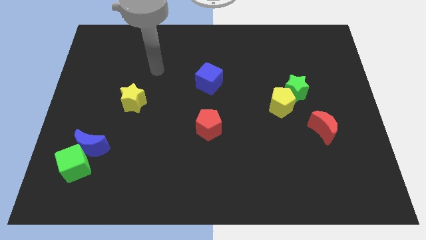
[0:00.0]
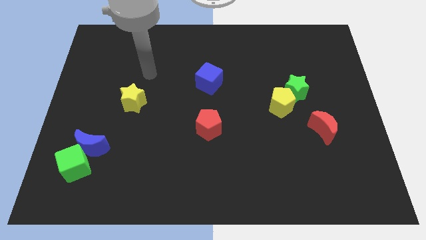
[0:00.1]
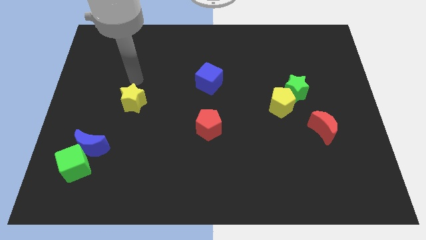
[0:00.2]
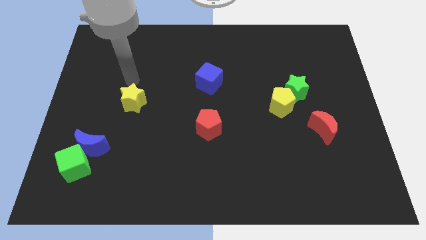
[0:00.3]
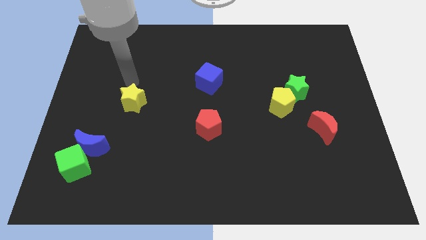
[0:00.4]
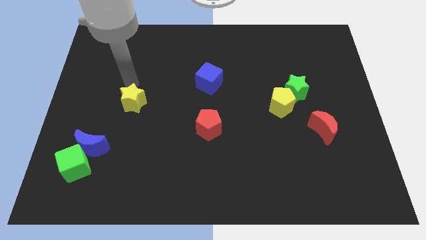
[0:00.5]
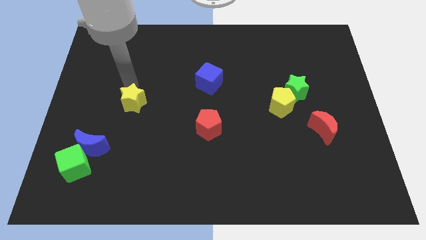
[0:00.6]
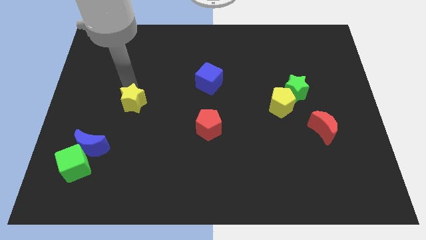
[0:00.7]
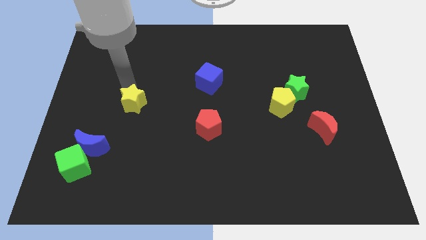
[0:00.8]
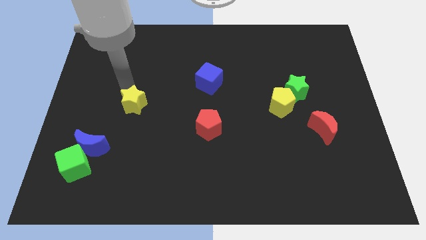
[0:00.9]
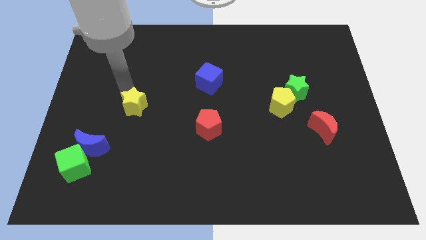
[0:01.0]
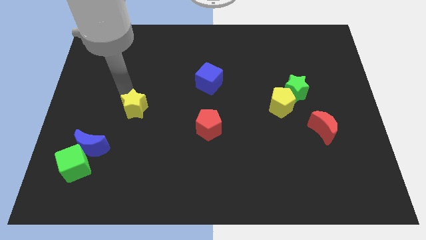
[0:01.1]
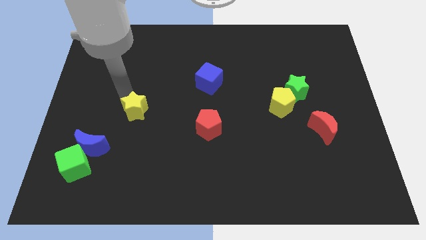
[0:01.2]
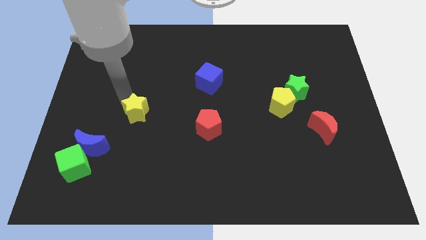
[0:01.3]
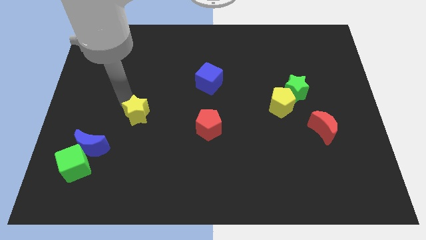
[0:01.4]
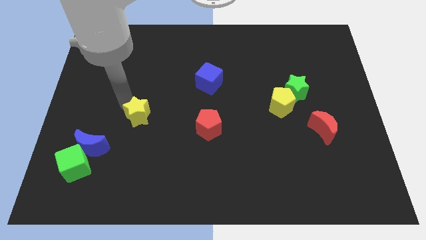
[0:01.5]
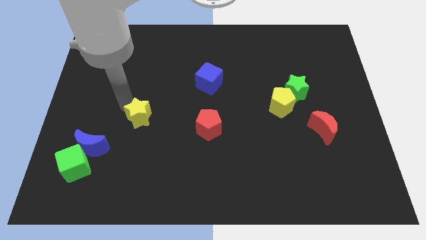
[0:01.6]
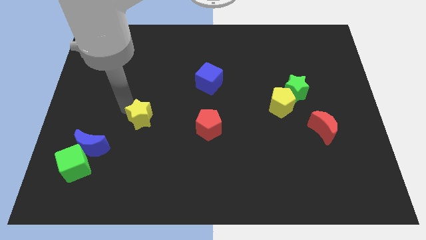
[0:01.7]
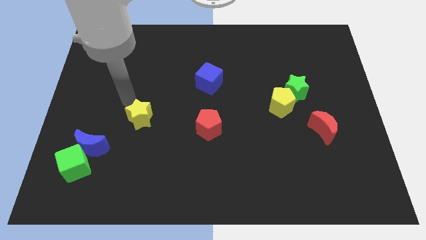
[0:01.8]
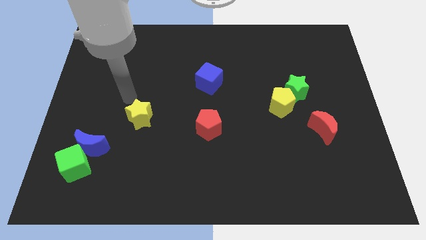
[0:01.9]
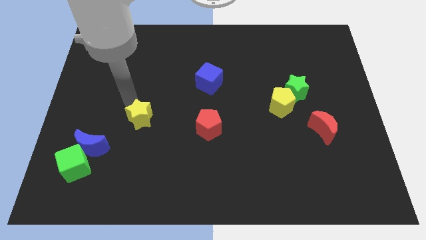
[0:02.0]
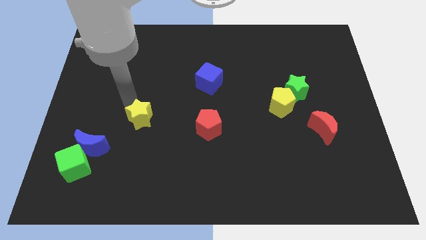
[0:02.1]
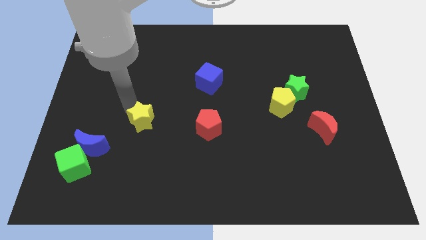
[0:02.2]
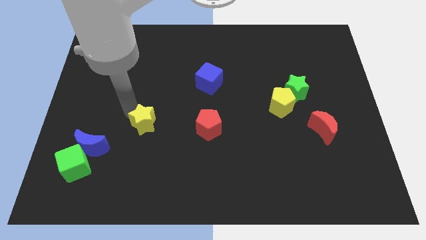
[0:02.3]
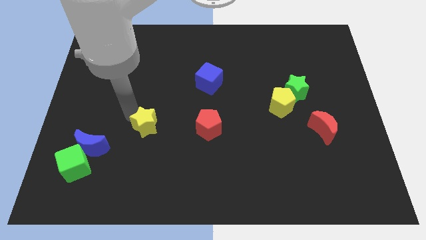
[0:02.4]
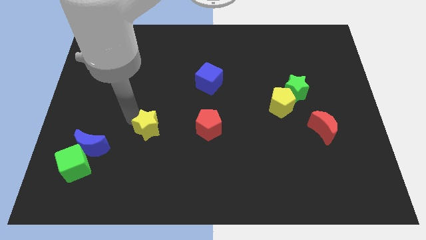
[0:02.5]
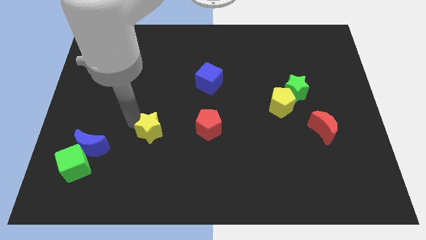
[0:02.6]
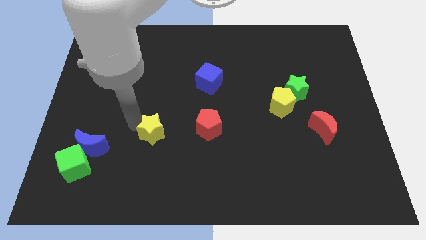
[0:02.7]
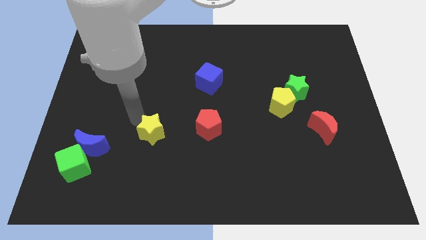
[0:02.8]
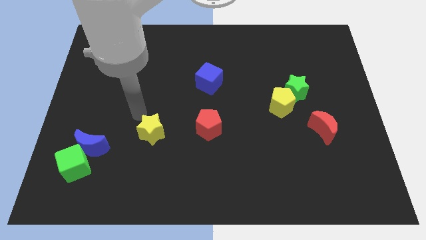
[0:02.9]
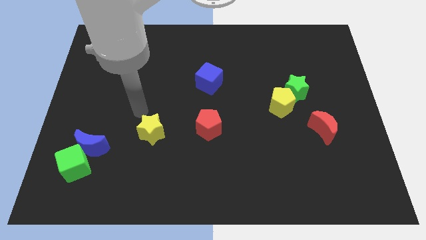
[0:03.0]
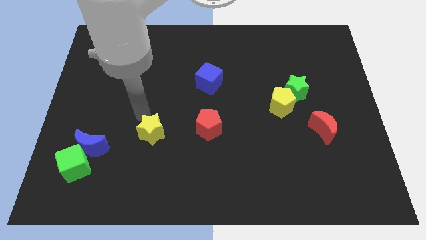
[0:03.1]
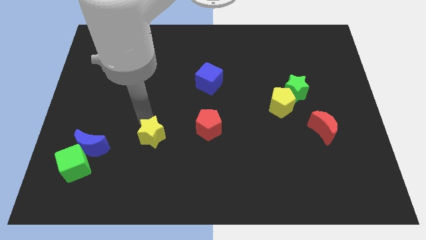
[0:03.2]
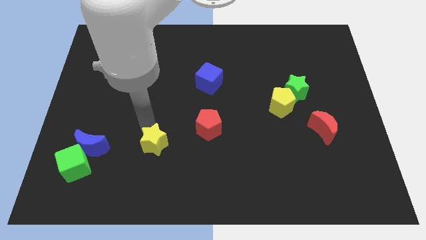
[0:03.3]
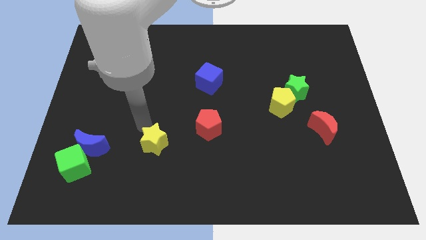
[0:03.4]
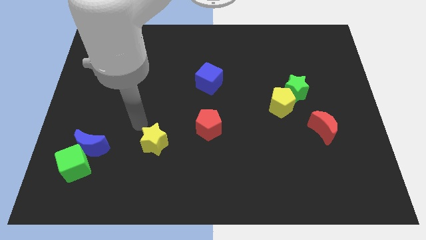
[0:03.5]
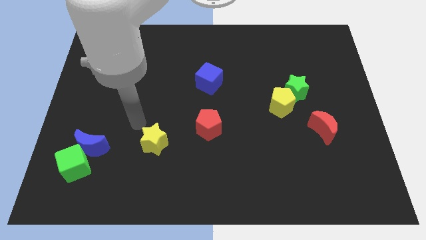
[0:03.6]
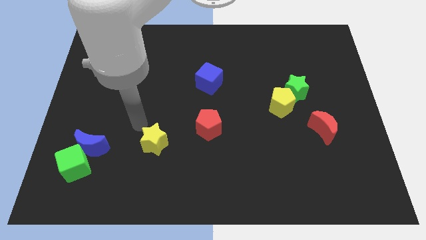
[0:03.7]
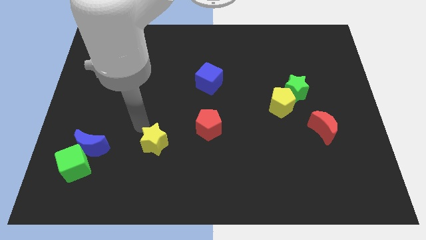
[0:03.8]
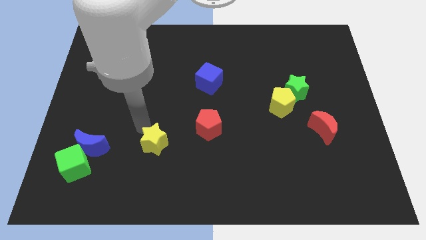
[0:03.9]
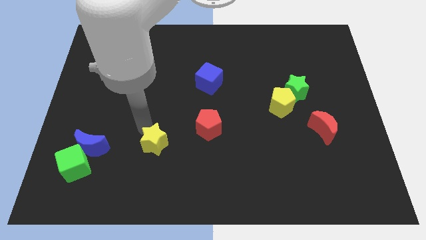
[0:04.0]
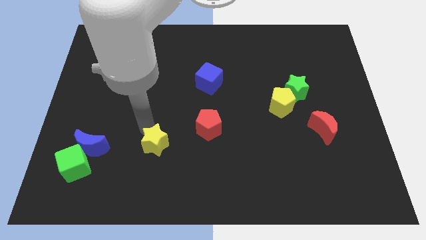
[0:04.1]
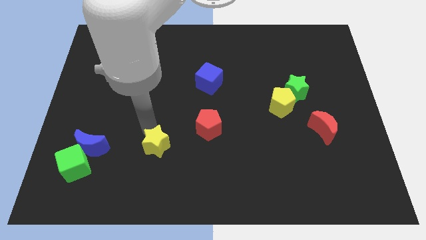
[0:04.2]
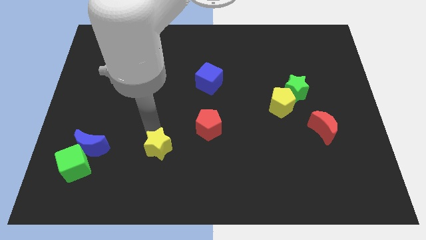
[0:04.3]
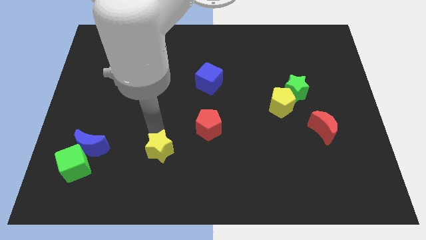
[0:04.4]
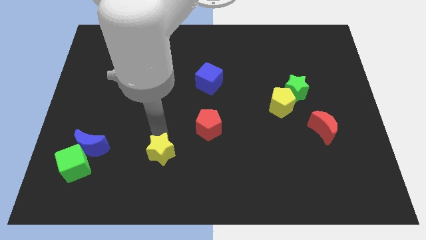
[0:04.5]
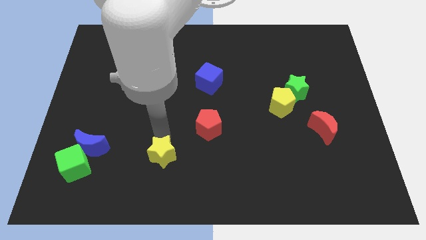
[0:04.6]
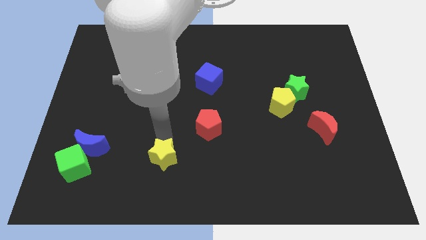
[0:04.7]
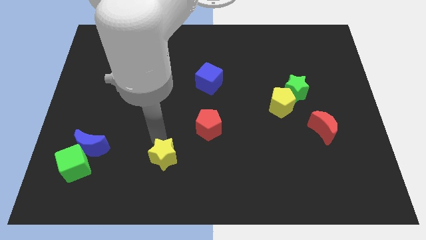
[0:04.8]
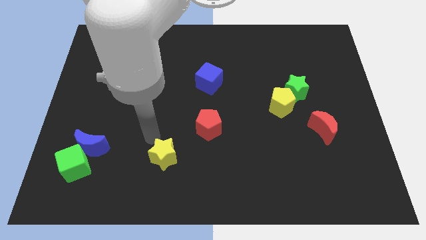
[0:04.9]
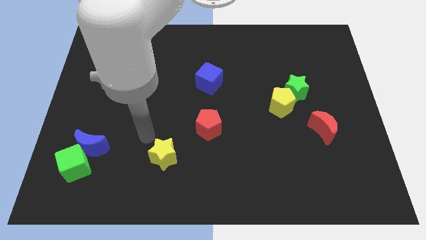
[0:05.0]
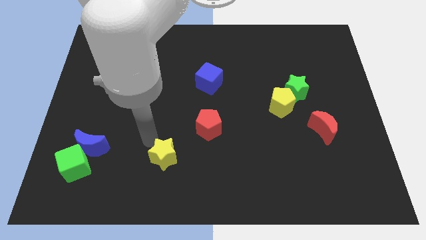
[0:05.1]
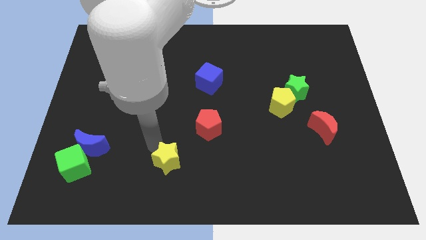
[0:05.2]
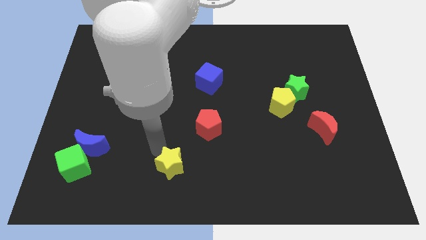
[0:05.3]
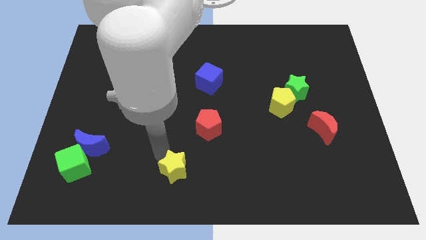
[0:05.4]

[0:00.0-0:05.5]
slide the yellow star to the bottom

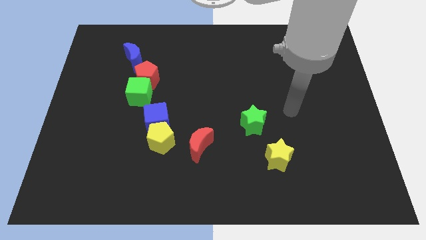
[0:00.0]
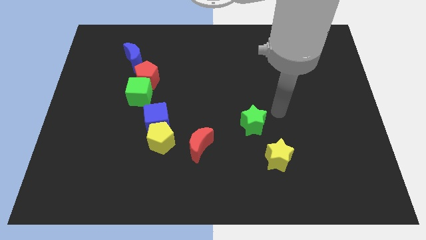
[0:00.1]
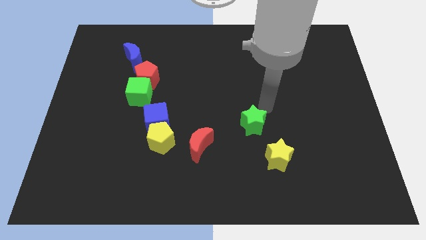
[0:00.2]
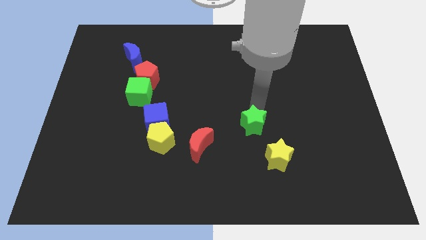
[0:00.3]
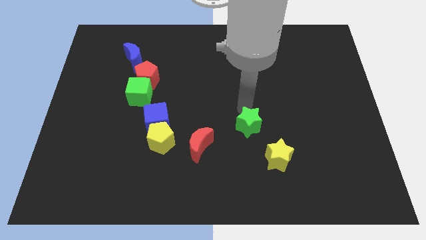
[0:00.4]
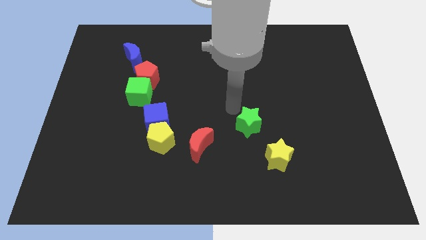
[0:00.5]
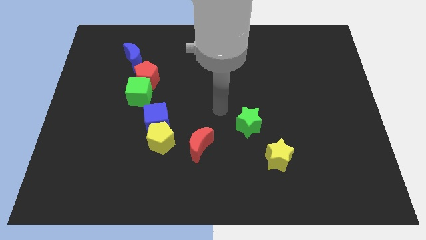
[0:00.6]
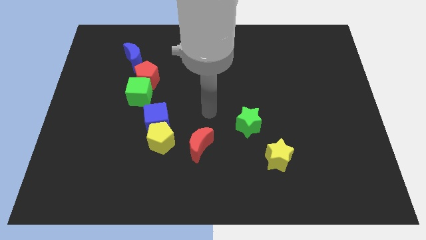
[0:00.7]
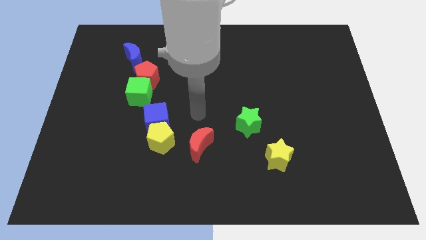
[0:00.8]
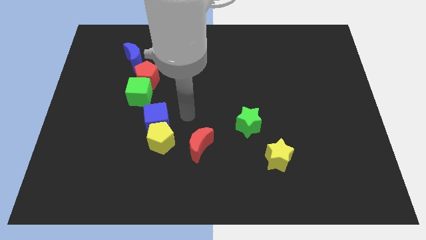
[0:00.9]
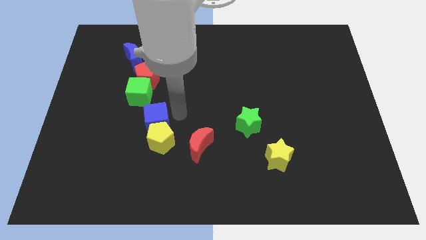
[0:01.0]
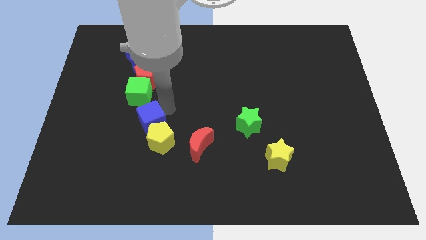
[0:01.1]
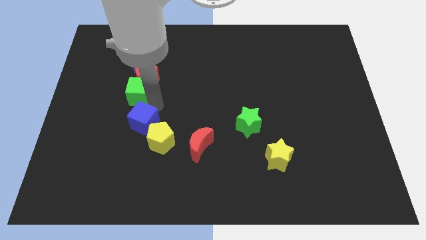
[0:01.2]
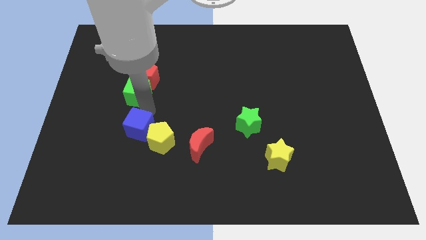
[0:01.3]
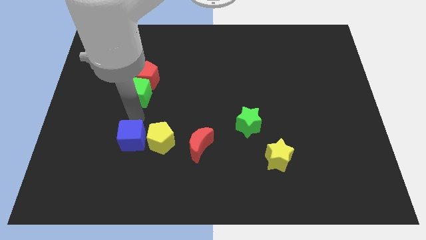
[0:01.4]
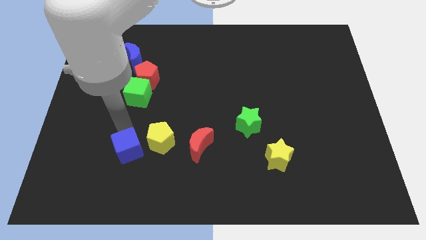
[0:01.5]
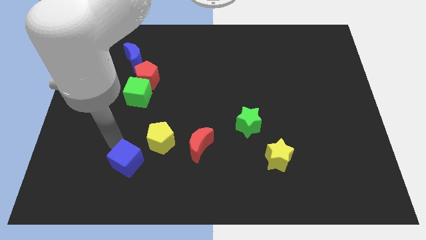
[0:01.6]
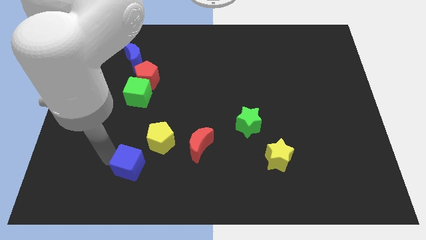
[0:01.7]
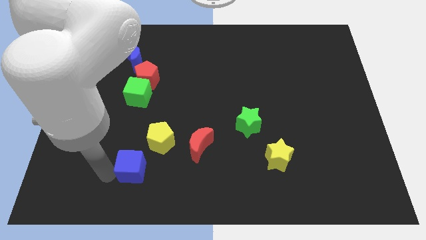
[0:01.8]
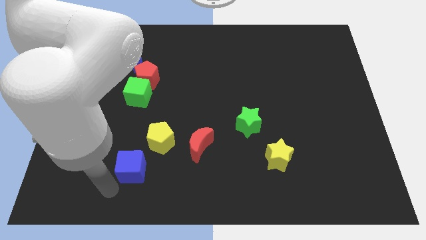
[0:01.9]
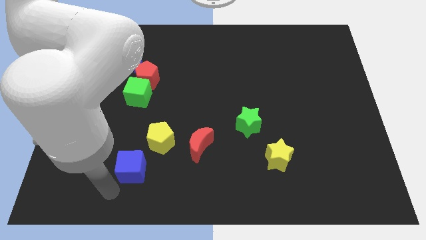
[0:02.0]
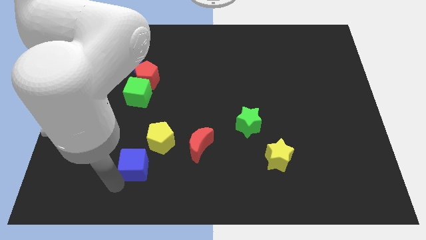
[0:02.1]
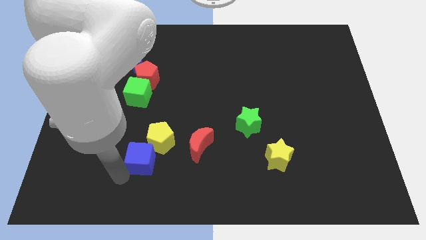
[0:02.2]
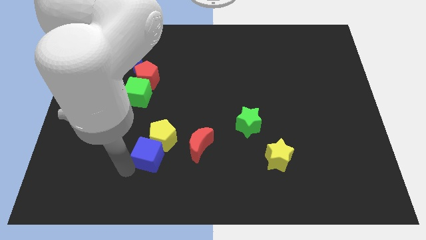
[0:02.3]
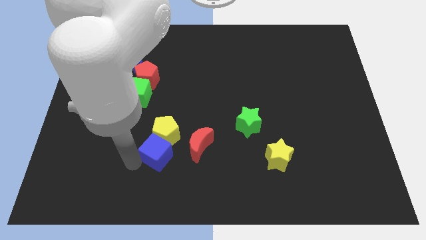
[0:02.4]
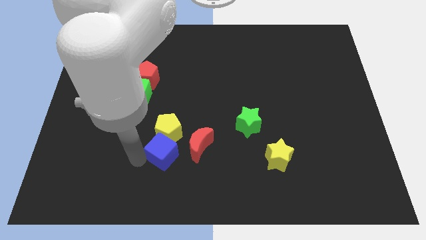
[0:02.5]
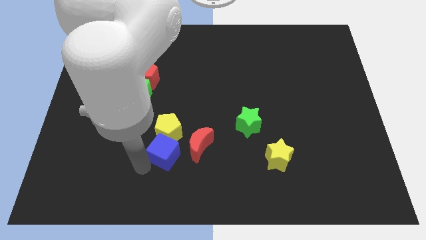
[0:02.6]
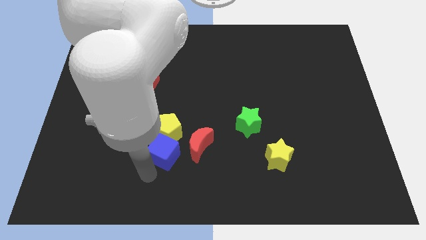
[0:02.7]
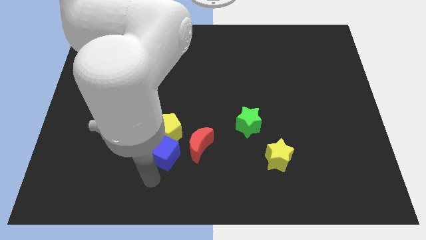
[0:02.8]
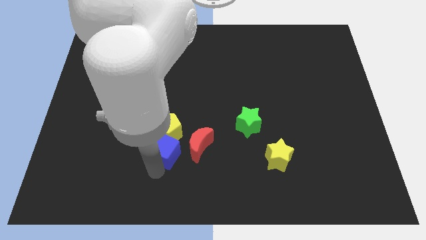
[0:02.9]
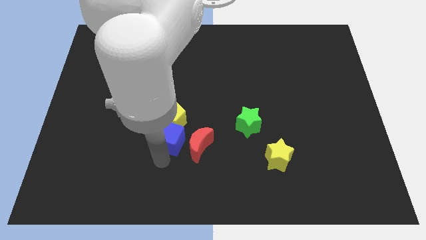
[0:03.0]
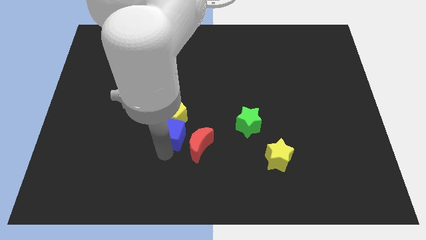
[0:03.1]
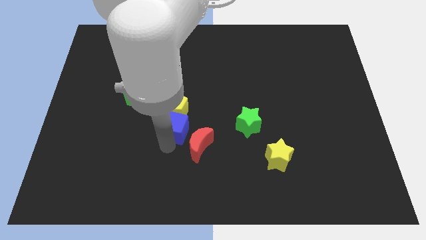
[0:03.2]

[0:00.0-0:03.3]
put the blue cube to the middle
